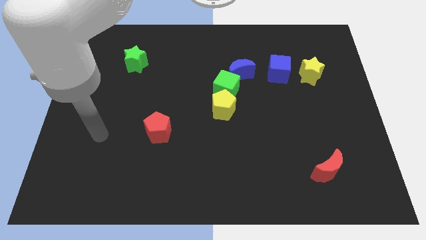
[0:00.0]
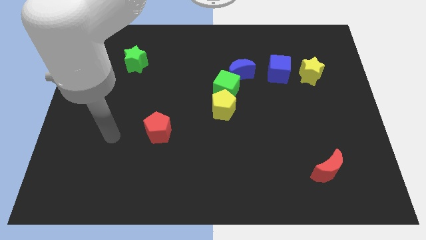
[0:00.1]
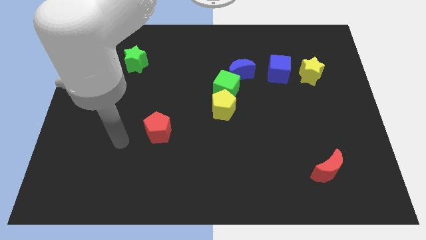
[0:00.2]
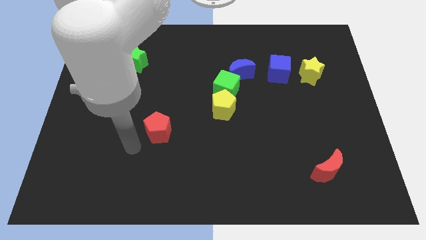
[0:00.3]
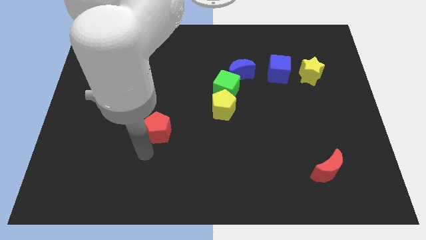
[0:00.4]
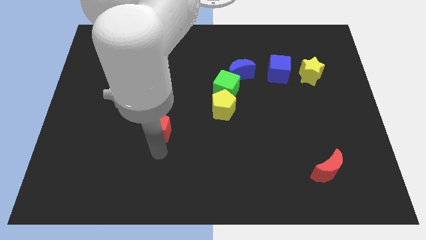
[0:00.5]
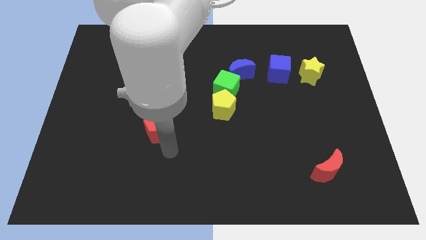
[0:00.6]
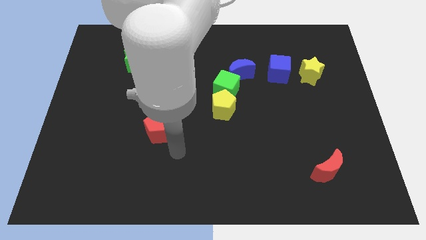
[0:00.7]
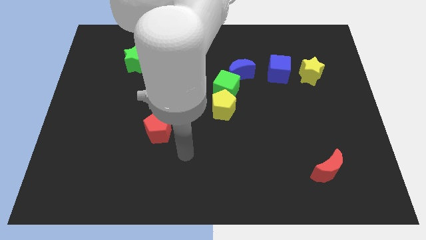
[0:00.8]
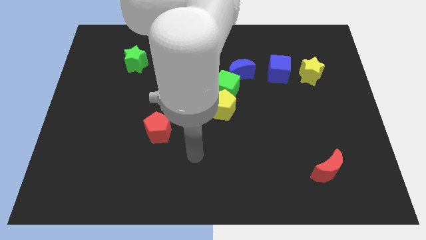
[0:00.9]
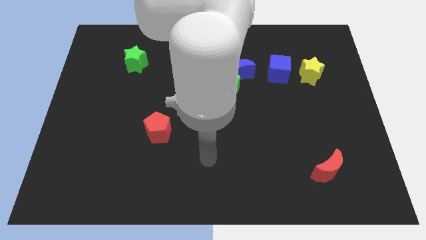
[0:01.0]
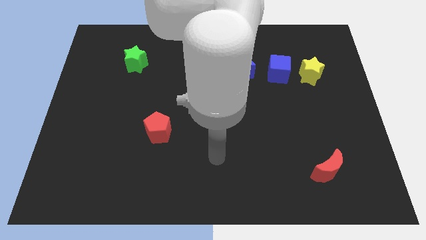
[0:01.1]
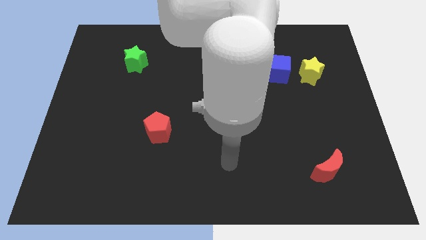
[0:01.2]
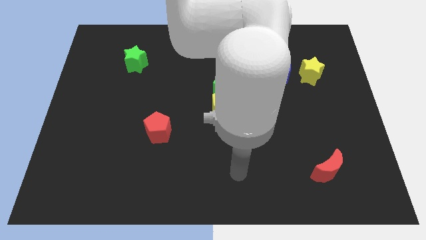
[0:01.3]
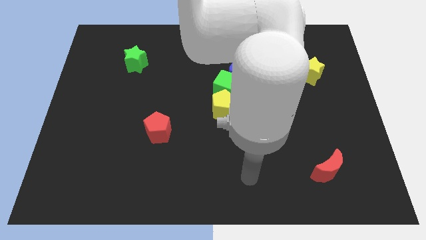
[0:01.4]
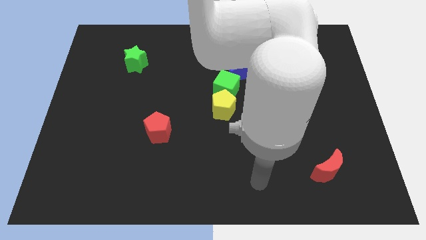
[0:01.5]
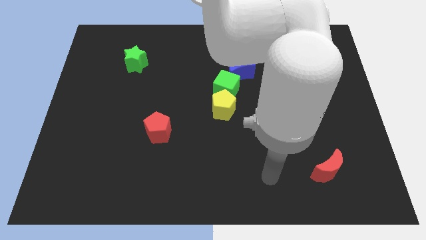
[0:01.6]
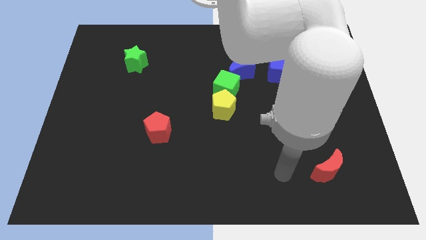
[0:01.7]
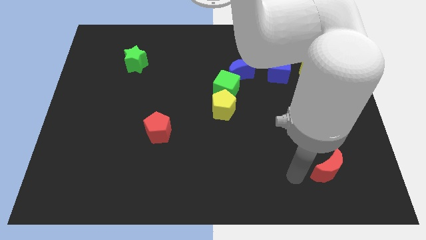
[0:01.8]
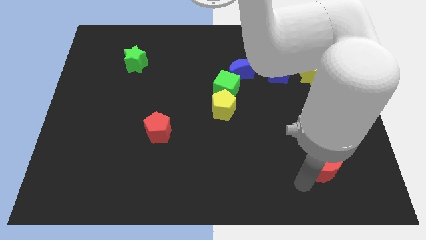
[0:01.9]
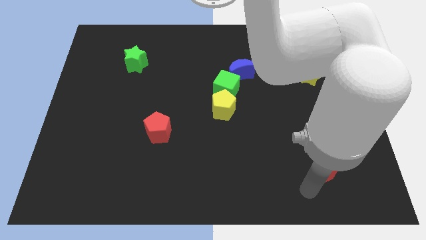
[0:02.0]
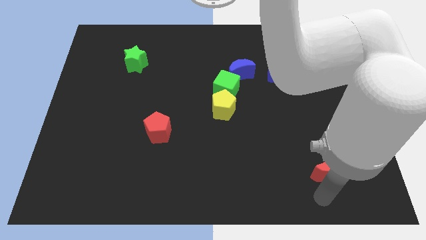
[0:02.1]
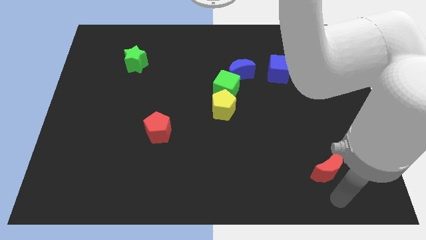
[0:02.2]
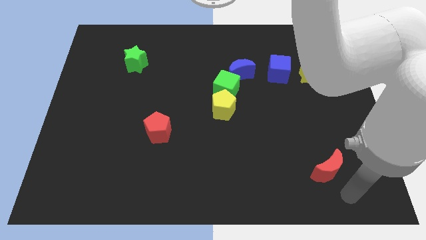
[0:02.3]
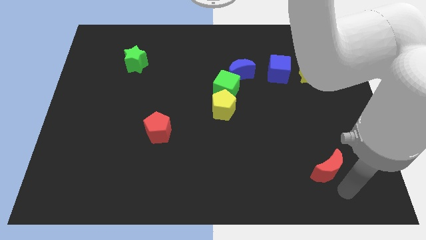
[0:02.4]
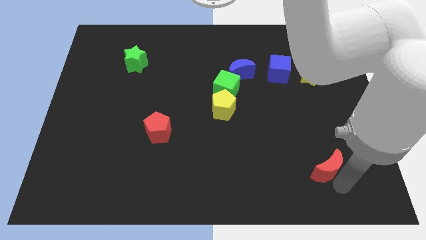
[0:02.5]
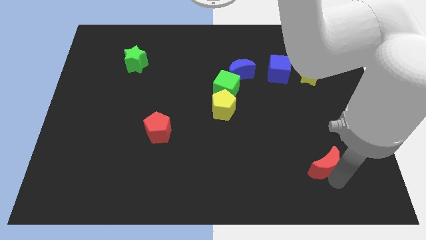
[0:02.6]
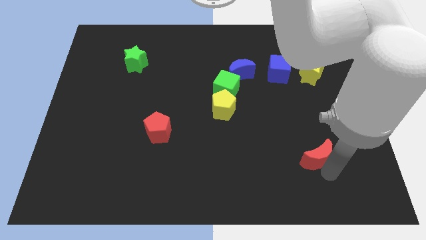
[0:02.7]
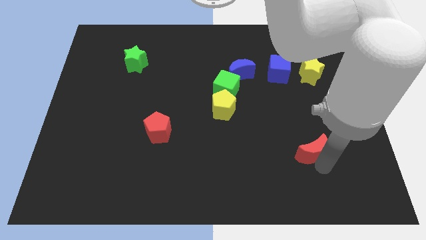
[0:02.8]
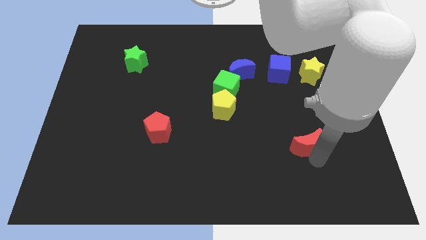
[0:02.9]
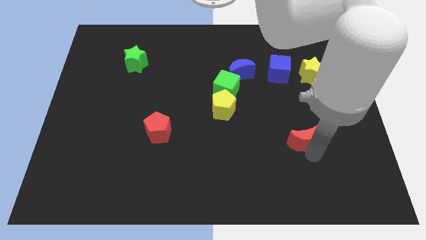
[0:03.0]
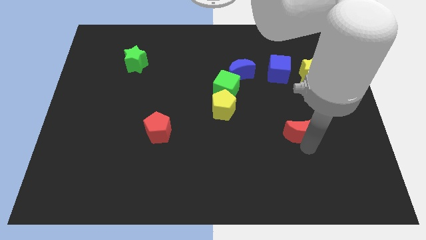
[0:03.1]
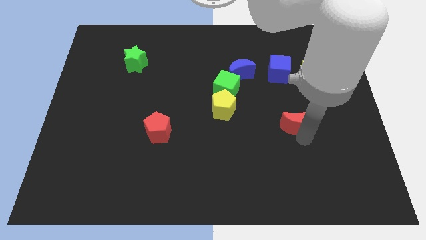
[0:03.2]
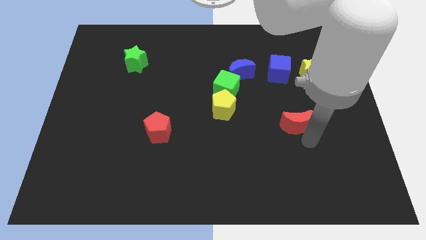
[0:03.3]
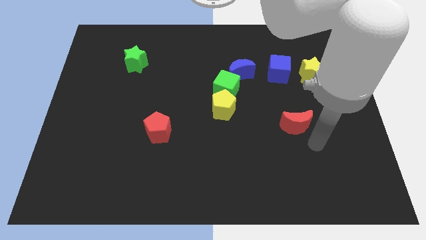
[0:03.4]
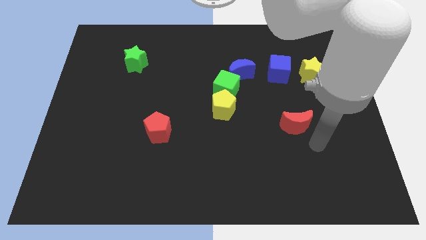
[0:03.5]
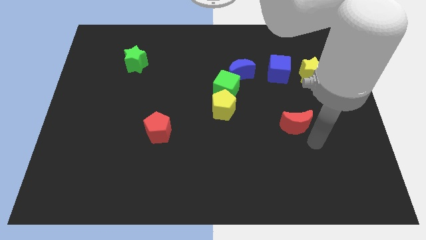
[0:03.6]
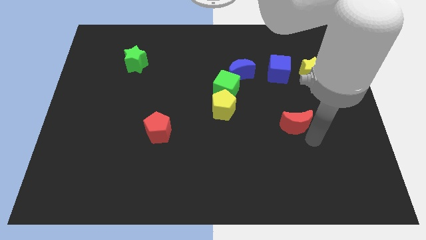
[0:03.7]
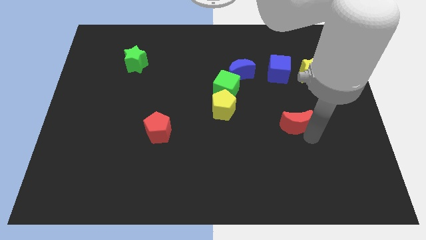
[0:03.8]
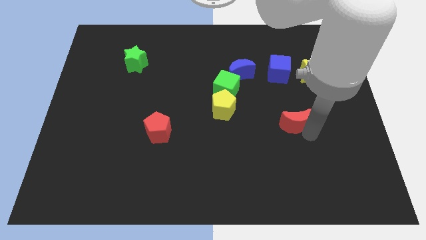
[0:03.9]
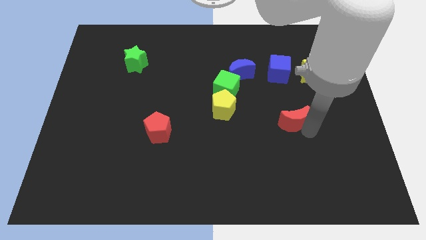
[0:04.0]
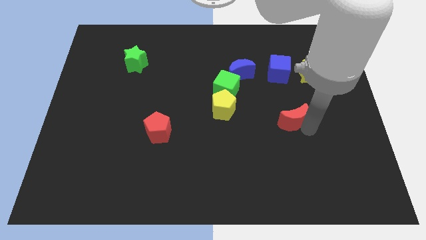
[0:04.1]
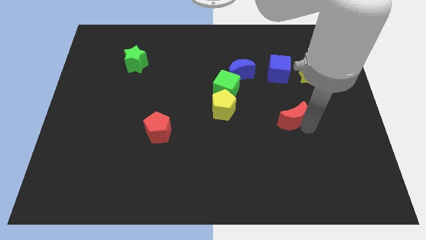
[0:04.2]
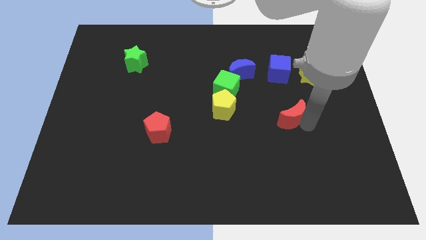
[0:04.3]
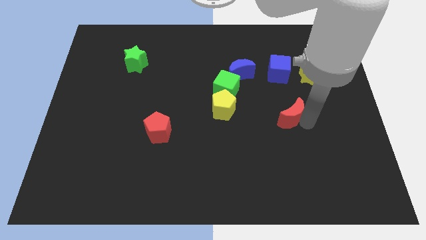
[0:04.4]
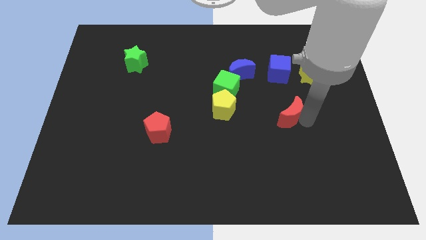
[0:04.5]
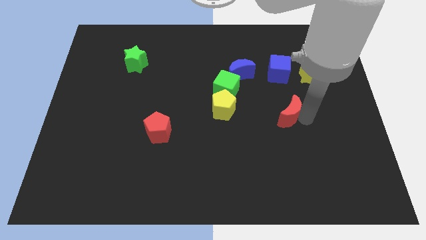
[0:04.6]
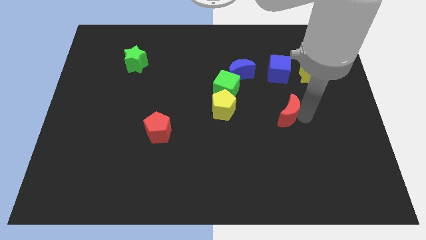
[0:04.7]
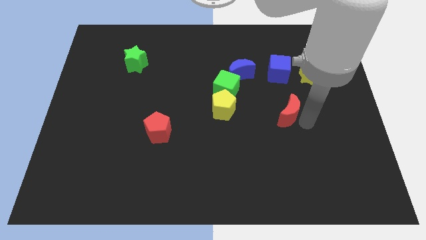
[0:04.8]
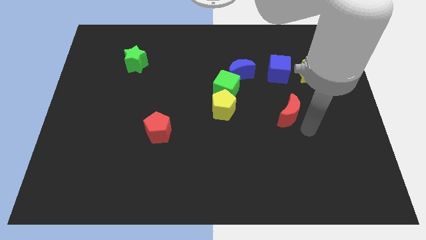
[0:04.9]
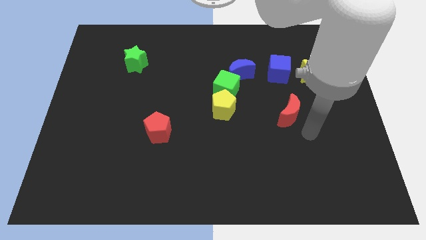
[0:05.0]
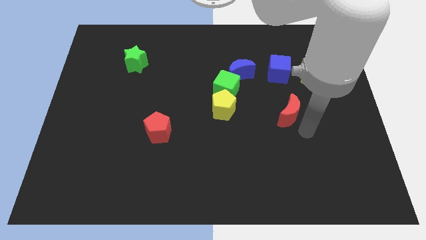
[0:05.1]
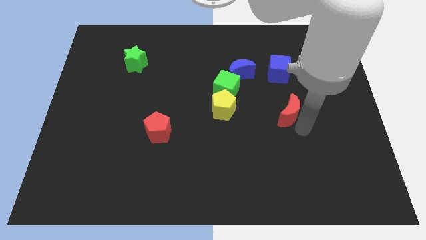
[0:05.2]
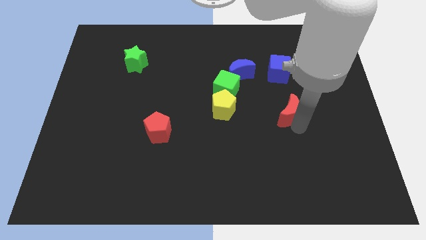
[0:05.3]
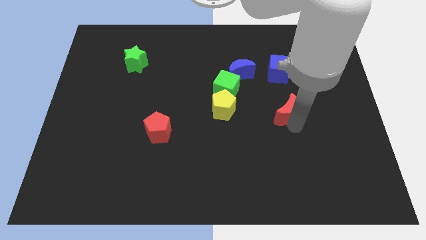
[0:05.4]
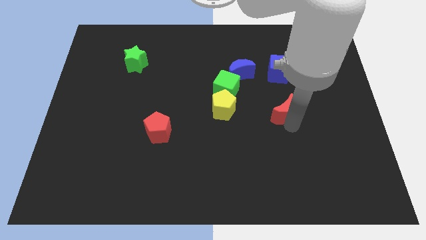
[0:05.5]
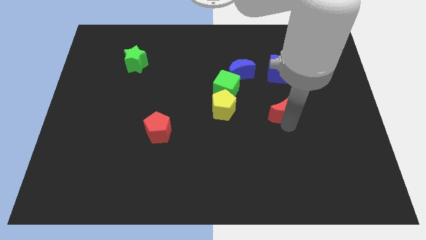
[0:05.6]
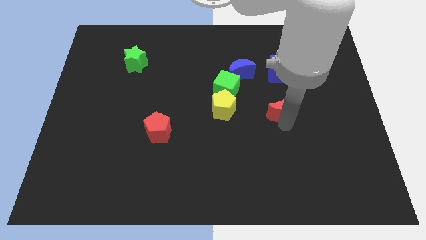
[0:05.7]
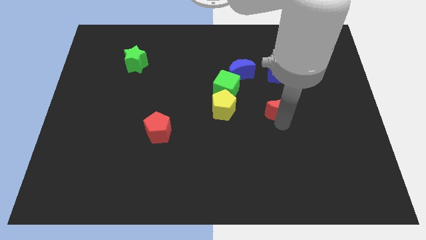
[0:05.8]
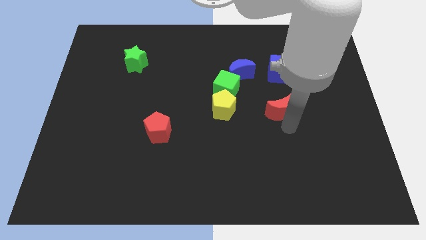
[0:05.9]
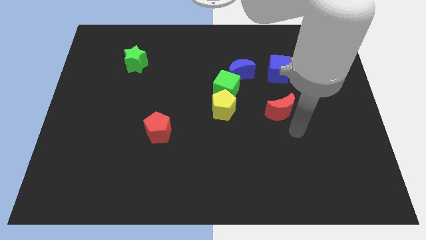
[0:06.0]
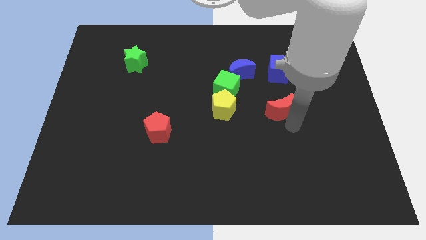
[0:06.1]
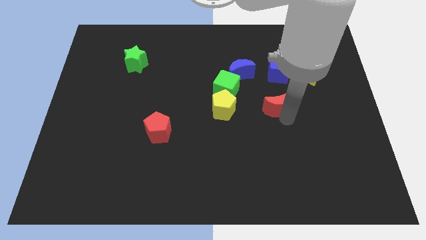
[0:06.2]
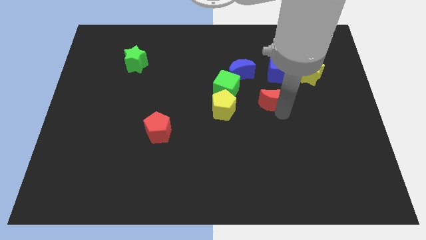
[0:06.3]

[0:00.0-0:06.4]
move the red moon to the bottom right side of the blue moon
